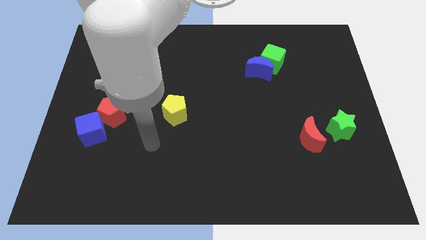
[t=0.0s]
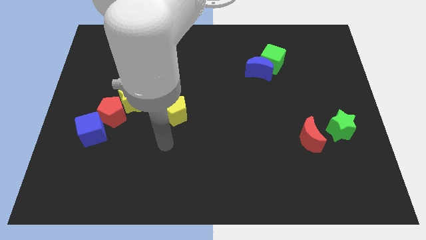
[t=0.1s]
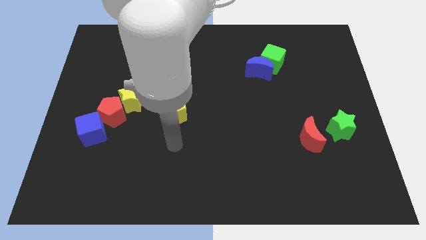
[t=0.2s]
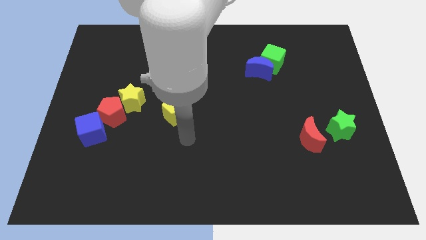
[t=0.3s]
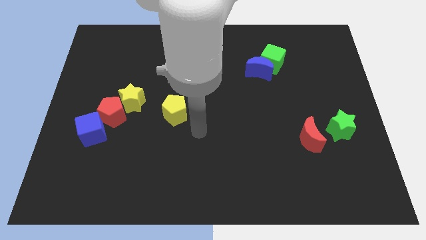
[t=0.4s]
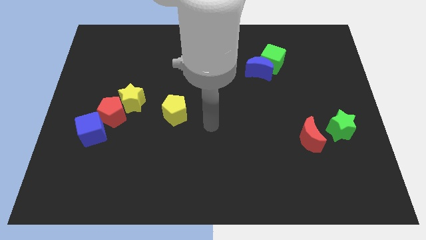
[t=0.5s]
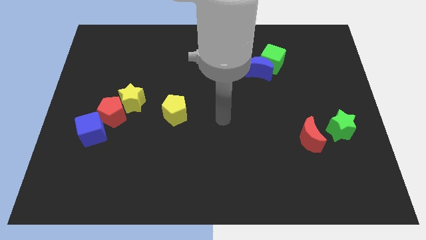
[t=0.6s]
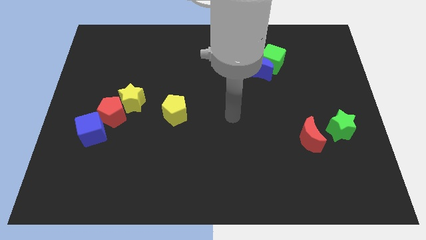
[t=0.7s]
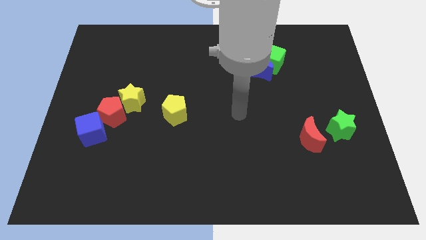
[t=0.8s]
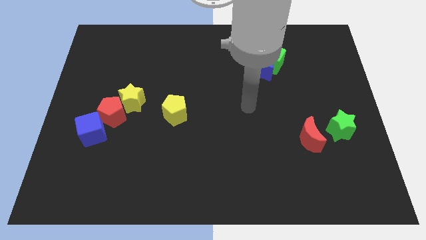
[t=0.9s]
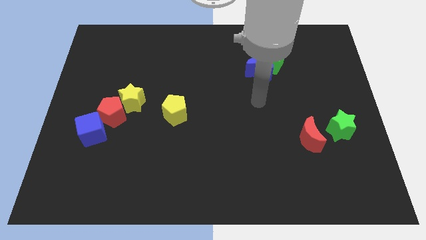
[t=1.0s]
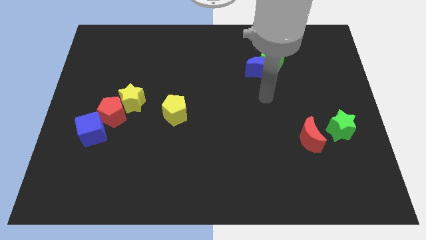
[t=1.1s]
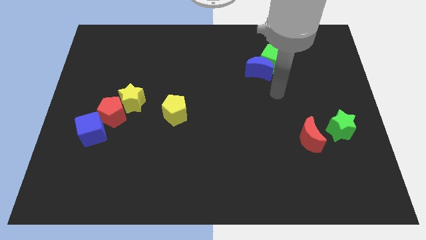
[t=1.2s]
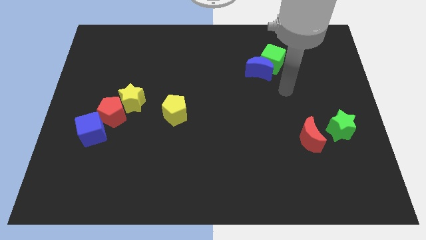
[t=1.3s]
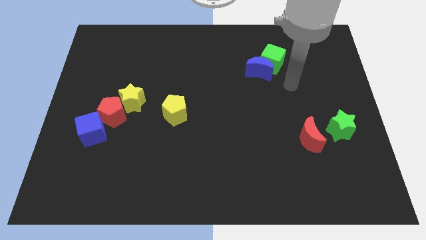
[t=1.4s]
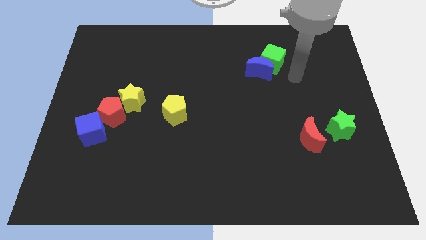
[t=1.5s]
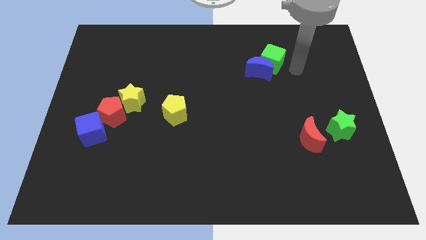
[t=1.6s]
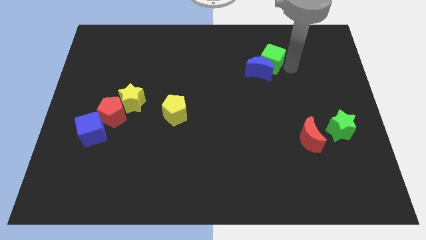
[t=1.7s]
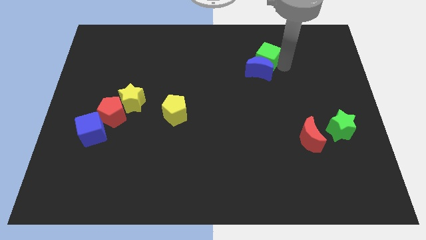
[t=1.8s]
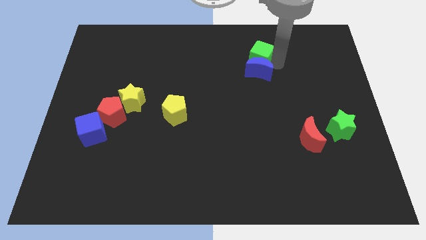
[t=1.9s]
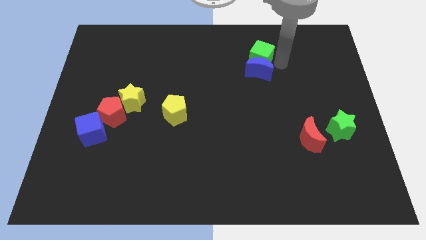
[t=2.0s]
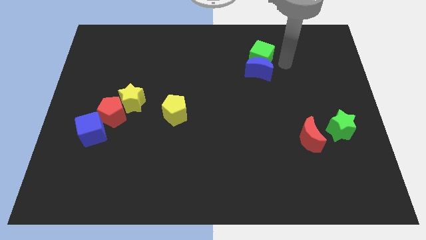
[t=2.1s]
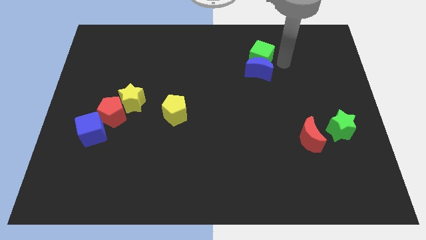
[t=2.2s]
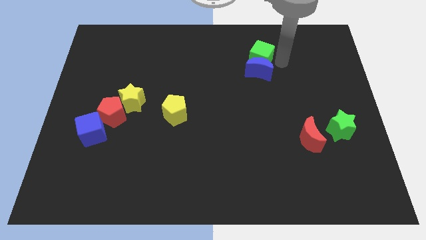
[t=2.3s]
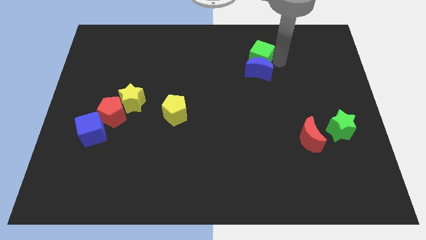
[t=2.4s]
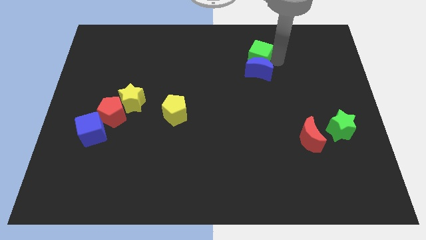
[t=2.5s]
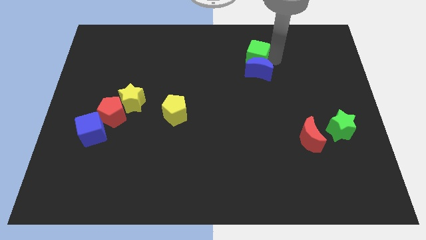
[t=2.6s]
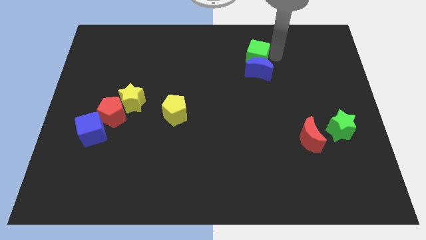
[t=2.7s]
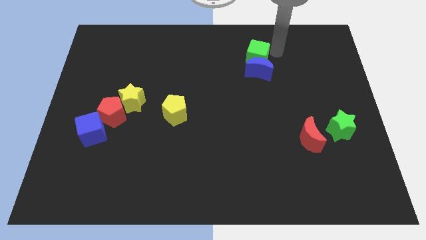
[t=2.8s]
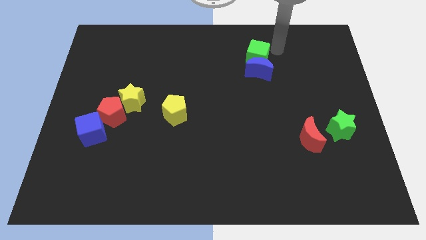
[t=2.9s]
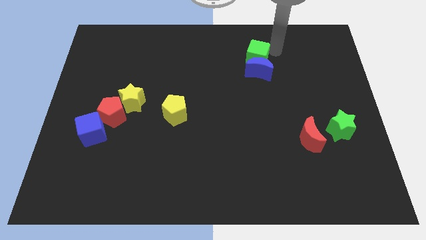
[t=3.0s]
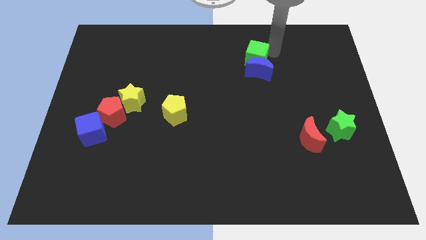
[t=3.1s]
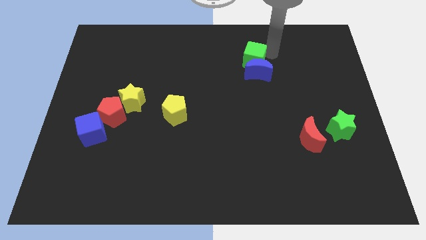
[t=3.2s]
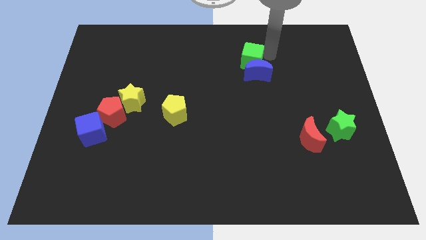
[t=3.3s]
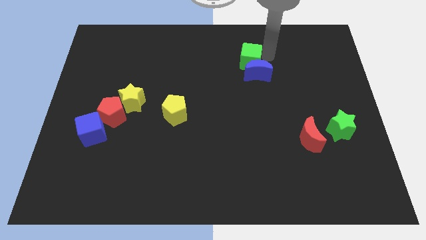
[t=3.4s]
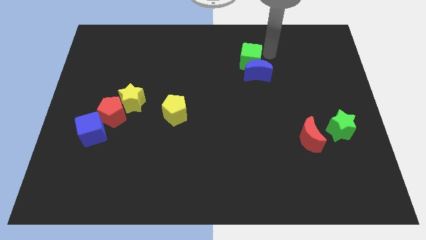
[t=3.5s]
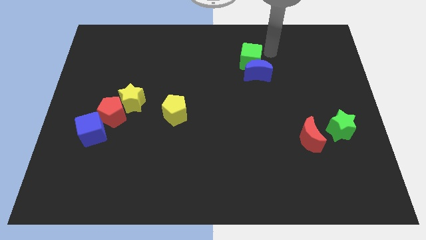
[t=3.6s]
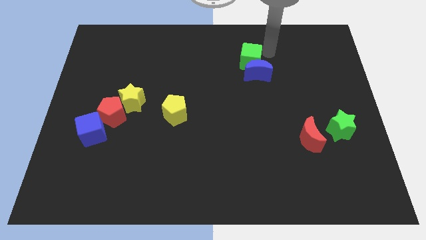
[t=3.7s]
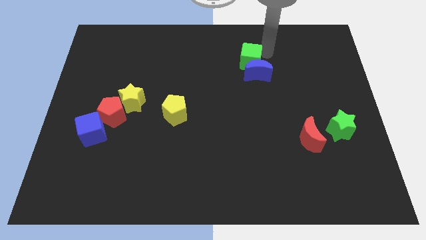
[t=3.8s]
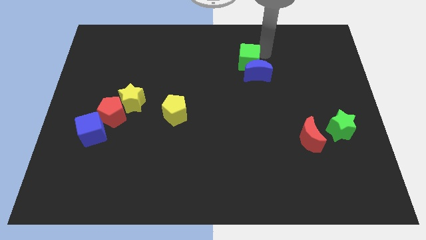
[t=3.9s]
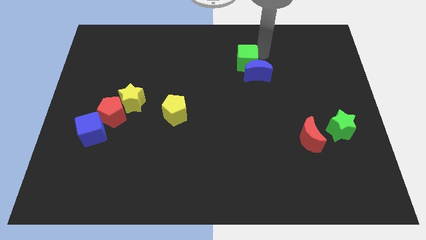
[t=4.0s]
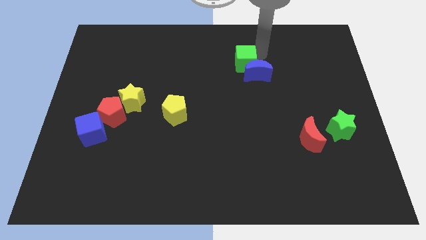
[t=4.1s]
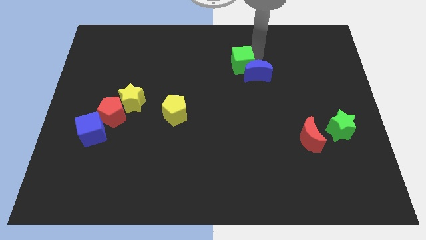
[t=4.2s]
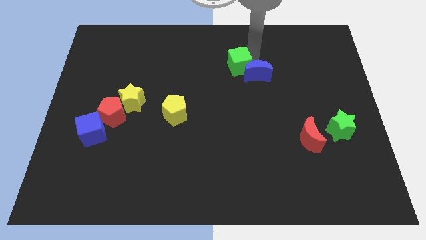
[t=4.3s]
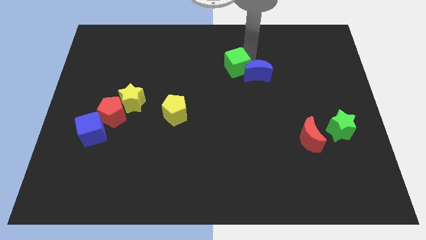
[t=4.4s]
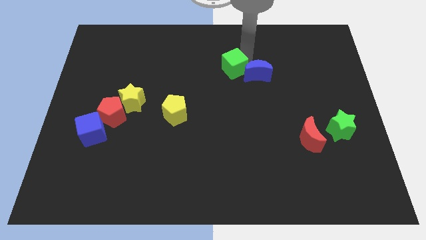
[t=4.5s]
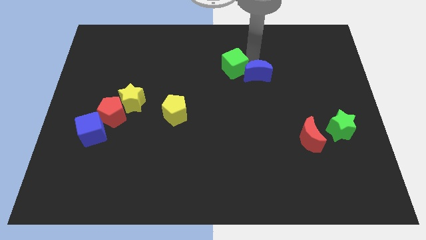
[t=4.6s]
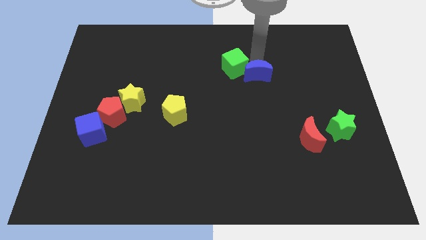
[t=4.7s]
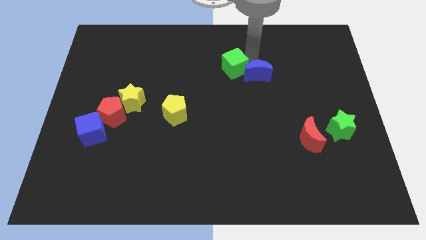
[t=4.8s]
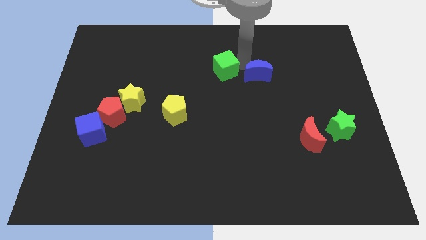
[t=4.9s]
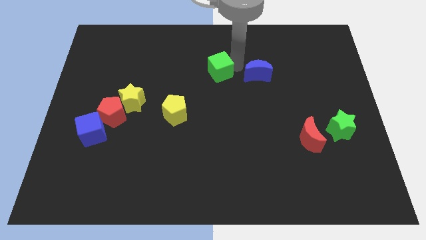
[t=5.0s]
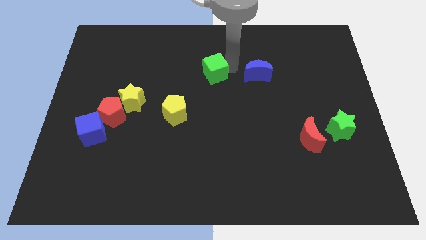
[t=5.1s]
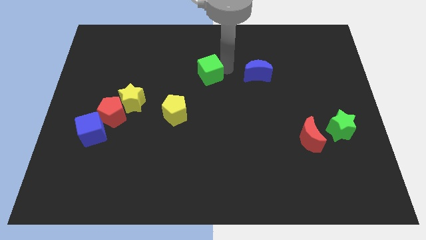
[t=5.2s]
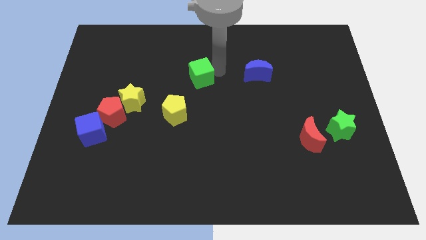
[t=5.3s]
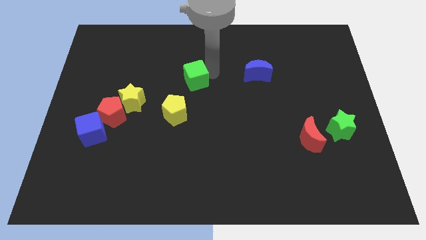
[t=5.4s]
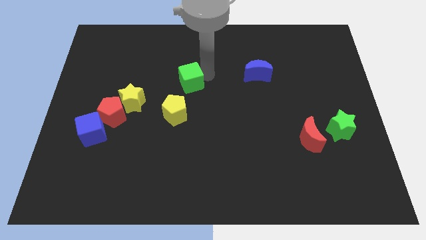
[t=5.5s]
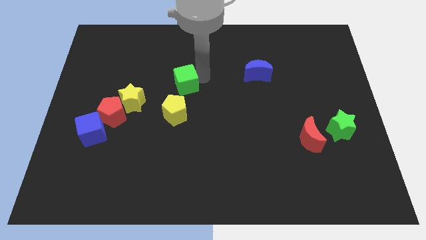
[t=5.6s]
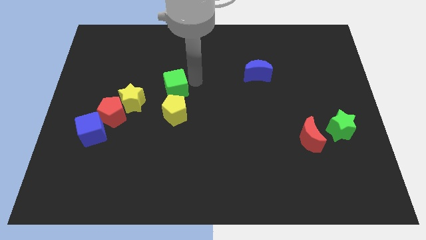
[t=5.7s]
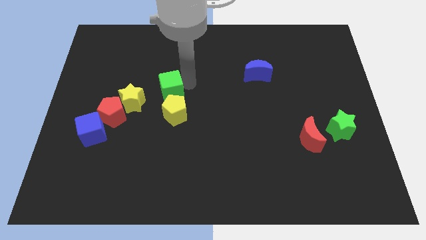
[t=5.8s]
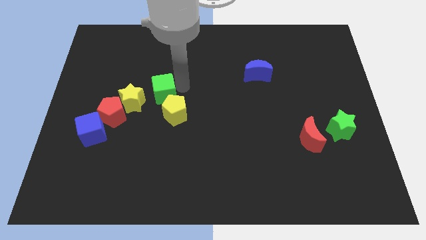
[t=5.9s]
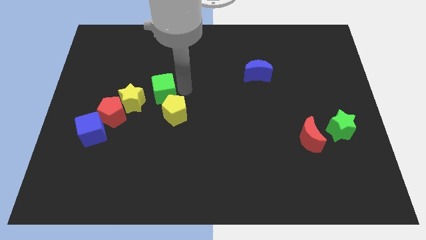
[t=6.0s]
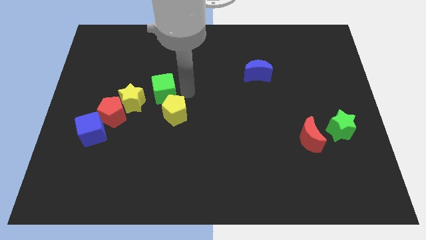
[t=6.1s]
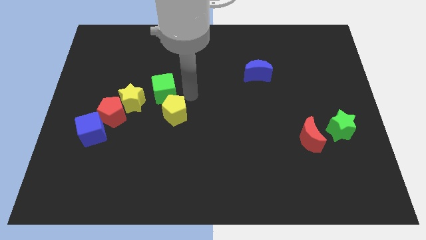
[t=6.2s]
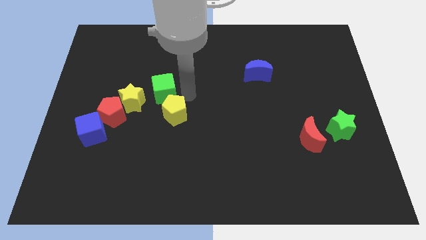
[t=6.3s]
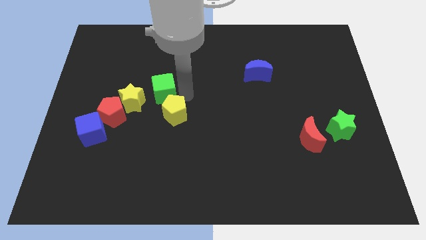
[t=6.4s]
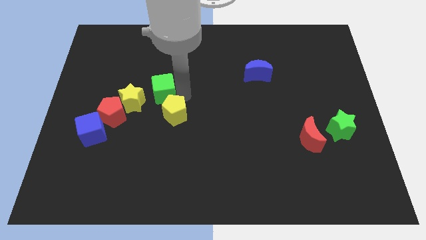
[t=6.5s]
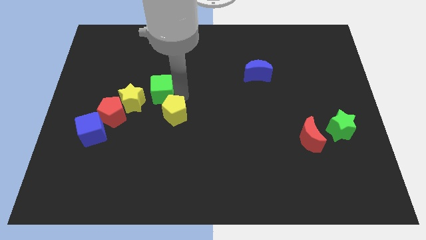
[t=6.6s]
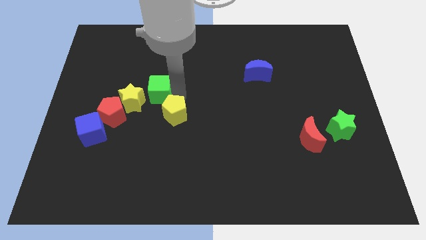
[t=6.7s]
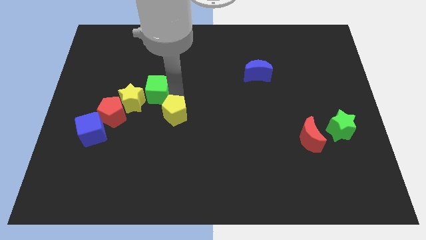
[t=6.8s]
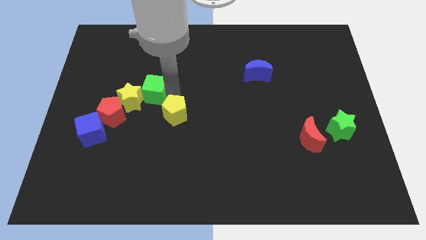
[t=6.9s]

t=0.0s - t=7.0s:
move the green cube next to the yellow star

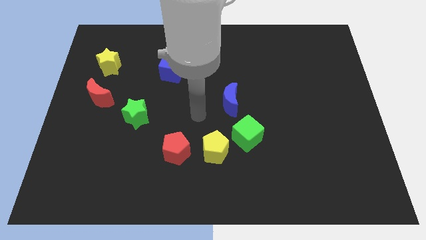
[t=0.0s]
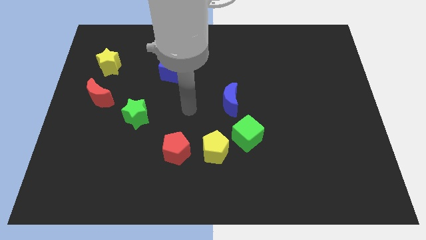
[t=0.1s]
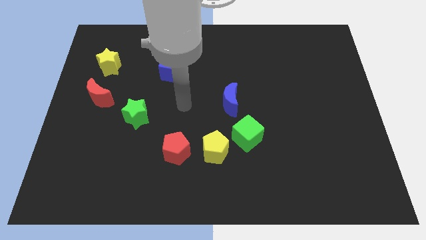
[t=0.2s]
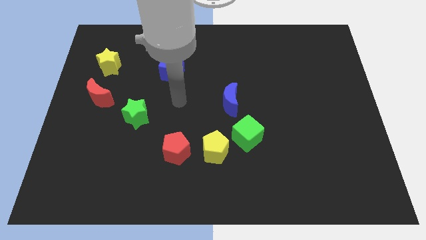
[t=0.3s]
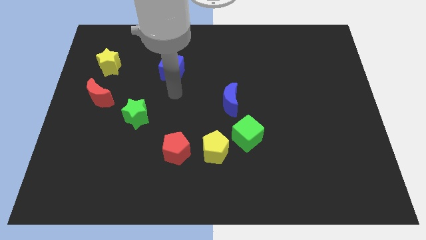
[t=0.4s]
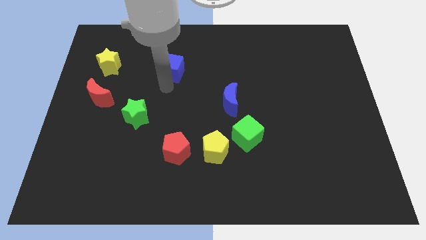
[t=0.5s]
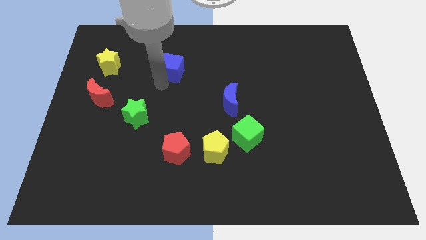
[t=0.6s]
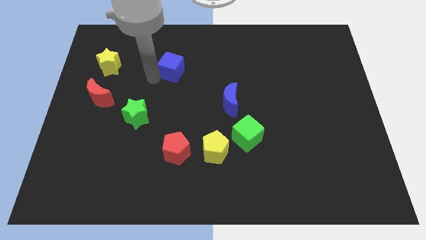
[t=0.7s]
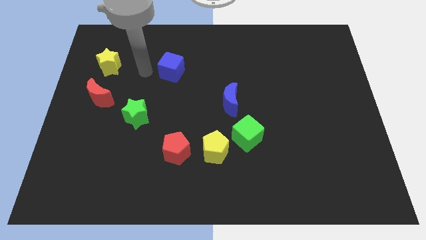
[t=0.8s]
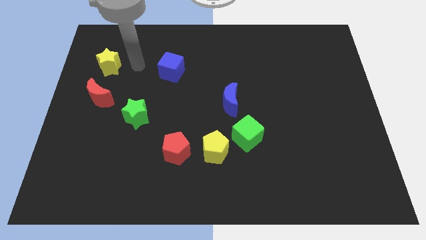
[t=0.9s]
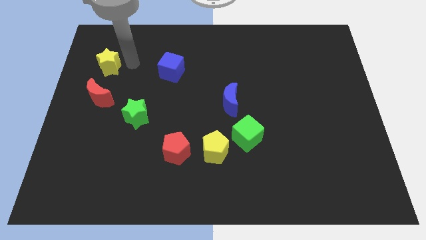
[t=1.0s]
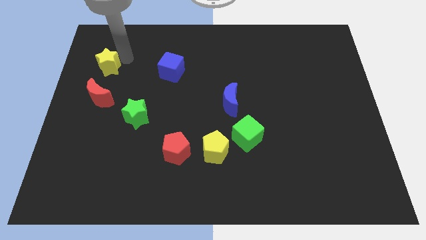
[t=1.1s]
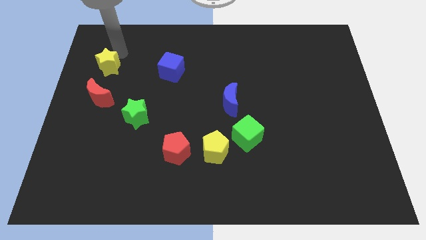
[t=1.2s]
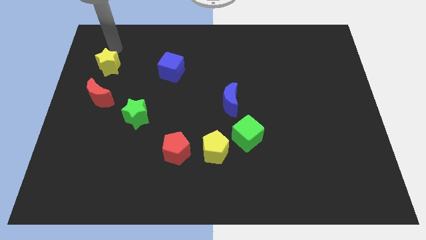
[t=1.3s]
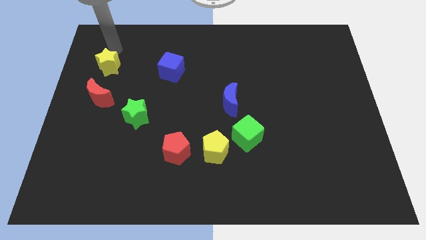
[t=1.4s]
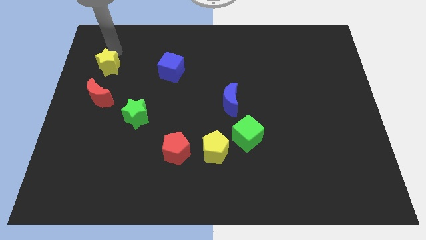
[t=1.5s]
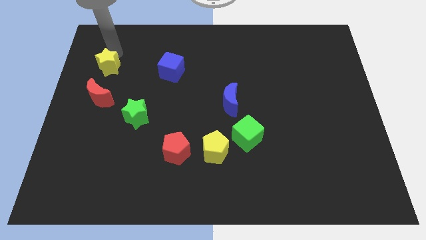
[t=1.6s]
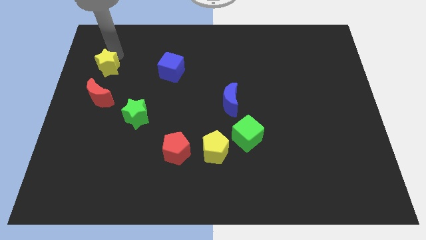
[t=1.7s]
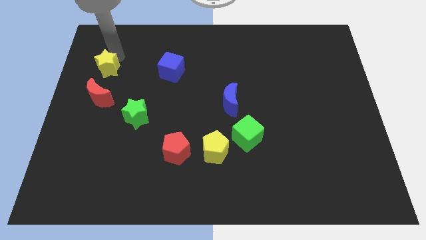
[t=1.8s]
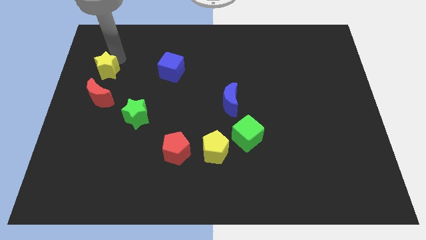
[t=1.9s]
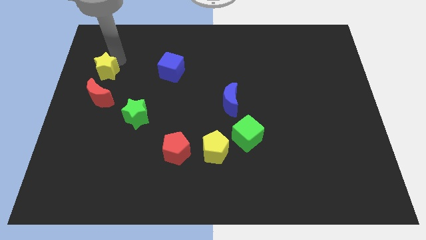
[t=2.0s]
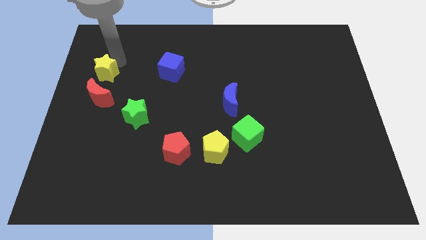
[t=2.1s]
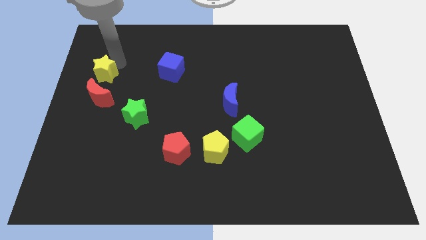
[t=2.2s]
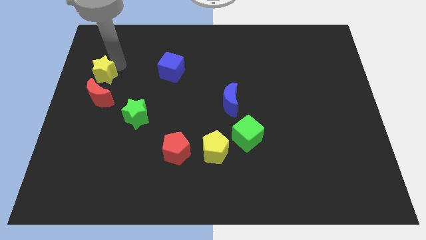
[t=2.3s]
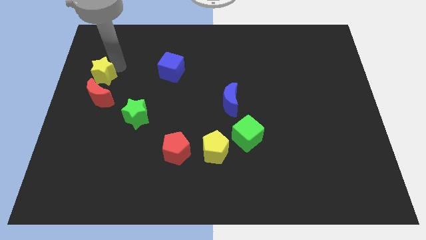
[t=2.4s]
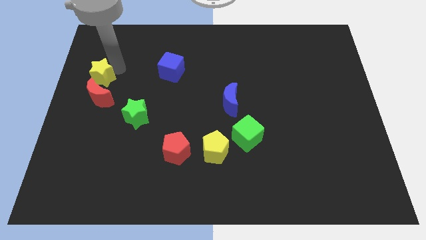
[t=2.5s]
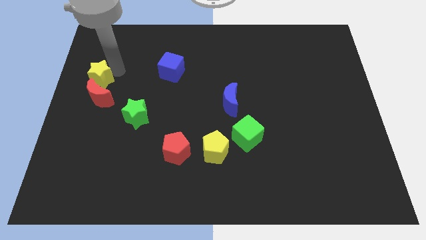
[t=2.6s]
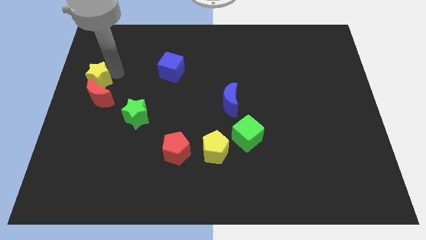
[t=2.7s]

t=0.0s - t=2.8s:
put the yellow star next to the red moon
